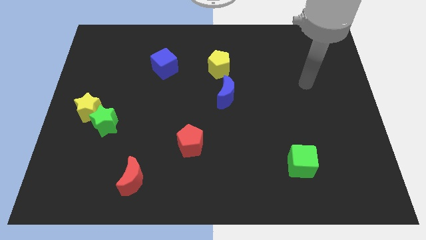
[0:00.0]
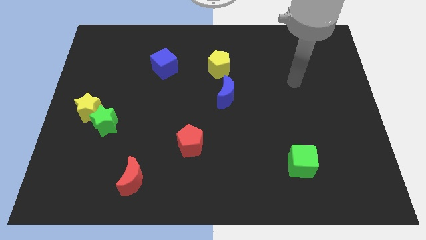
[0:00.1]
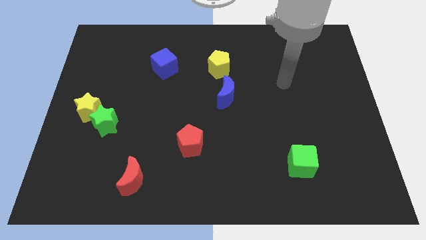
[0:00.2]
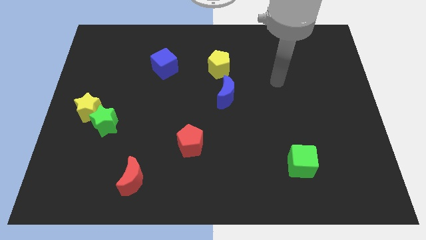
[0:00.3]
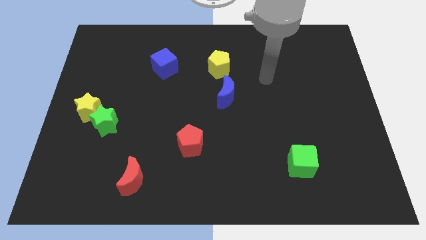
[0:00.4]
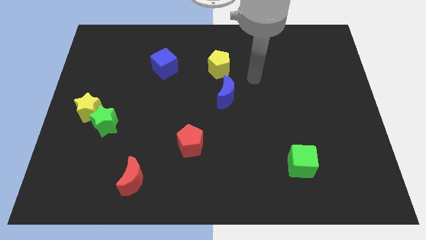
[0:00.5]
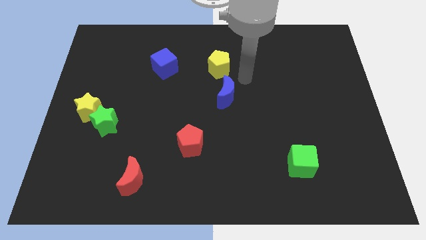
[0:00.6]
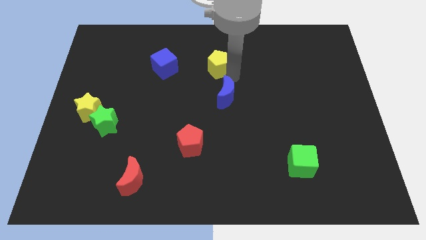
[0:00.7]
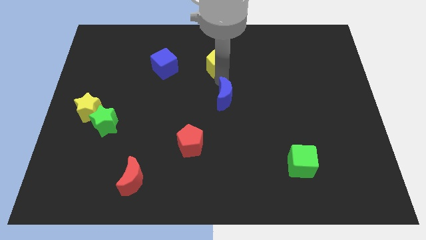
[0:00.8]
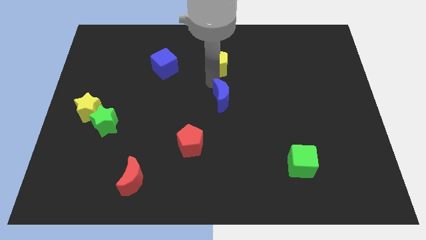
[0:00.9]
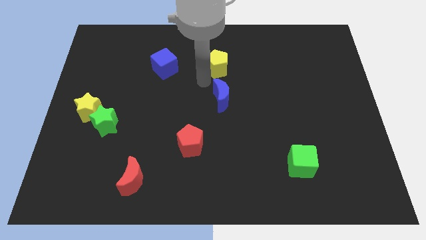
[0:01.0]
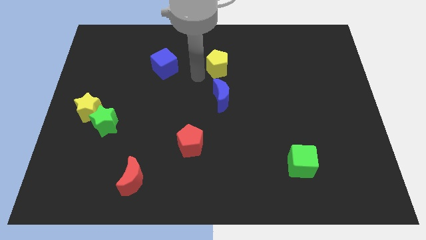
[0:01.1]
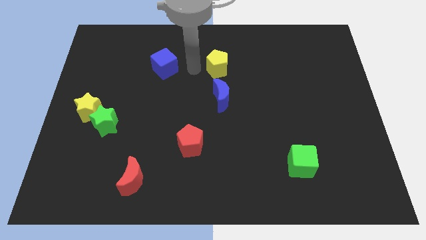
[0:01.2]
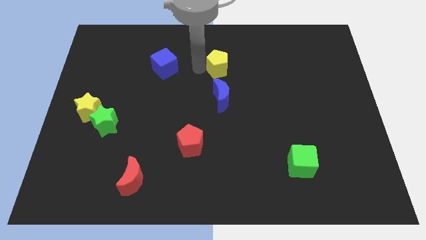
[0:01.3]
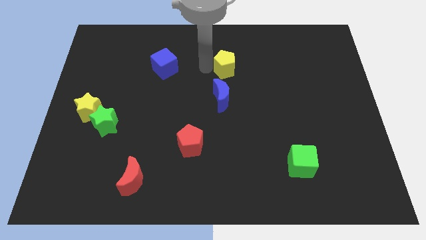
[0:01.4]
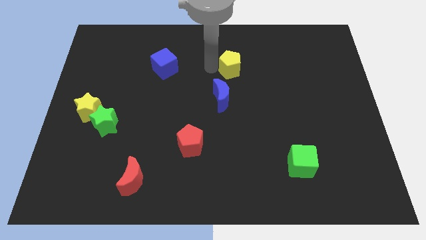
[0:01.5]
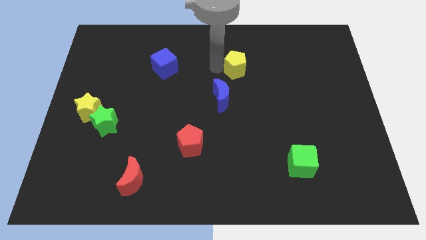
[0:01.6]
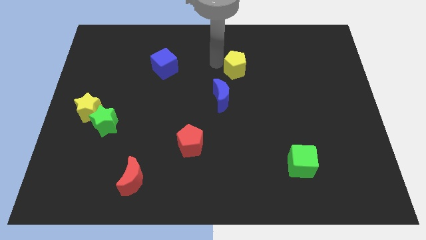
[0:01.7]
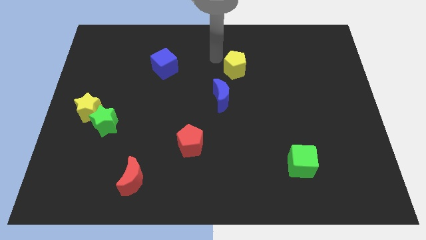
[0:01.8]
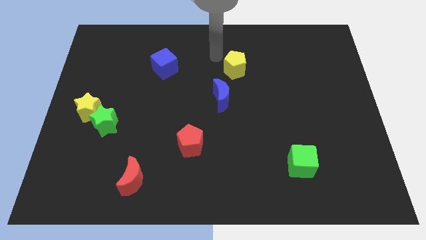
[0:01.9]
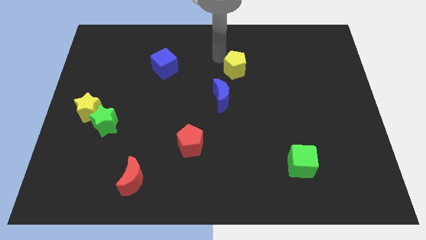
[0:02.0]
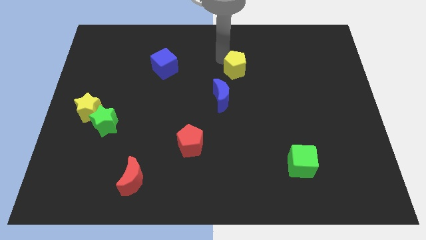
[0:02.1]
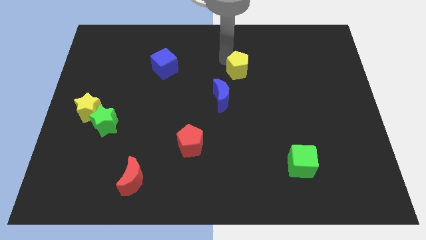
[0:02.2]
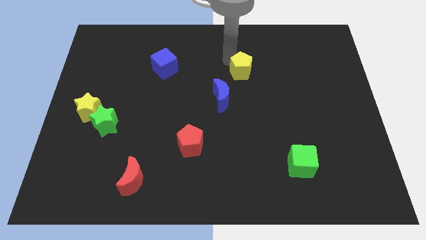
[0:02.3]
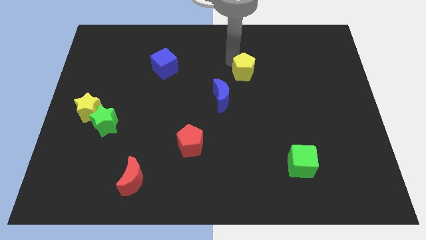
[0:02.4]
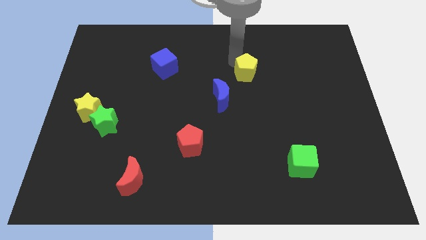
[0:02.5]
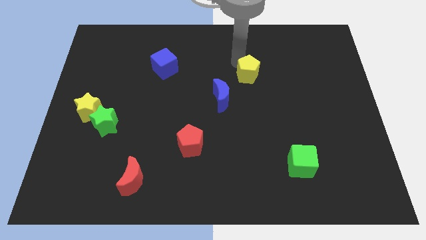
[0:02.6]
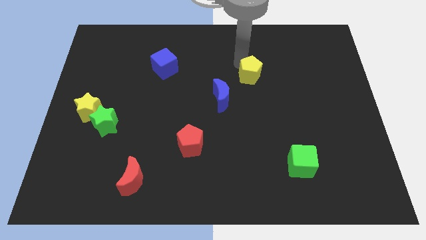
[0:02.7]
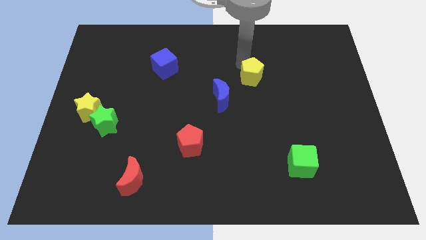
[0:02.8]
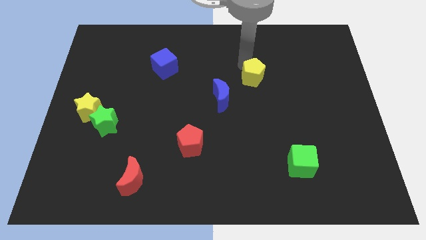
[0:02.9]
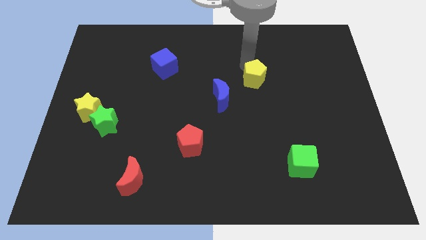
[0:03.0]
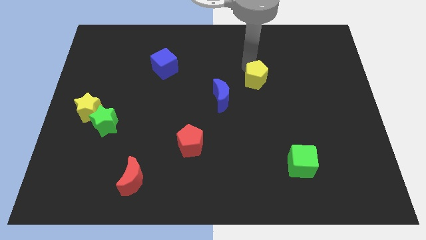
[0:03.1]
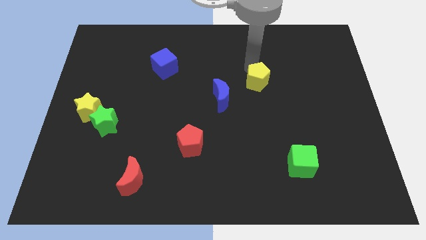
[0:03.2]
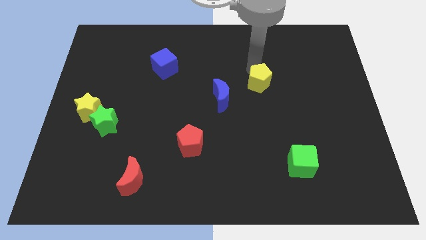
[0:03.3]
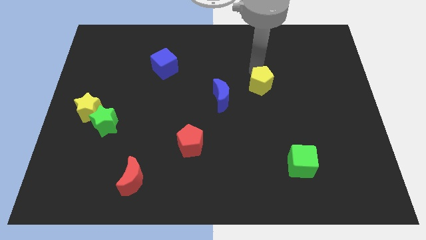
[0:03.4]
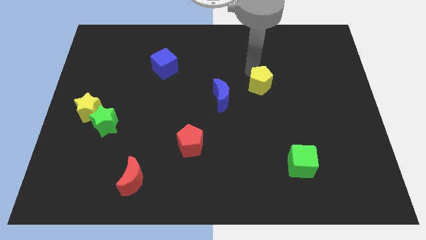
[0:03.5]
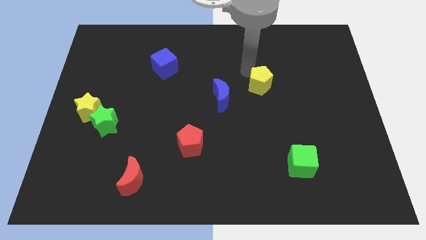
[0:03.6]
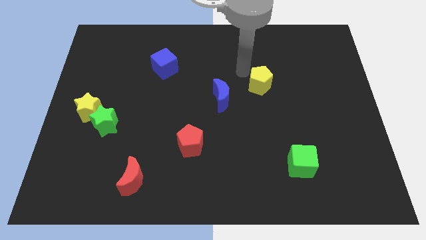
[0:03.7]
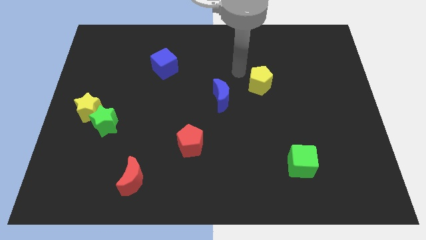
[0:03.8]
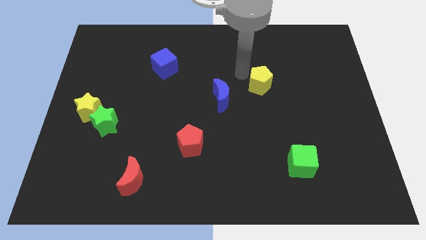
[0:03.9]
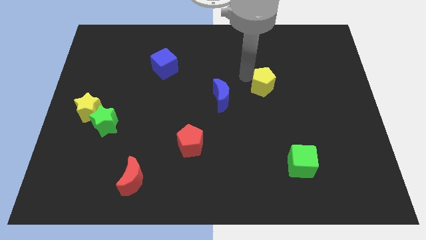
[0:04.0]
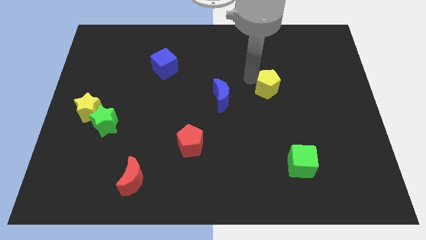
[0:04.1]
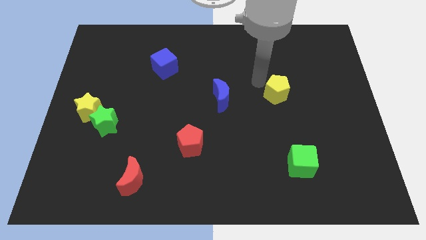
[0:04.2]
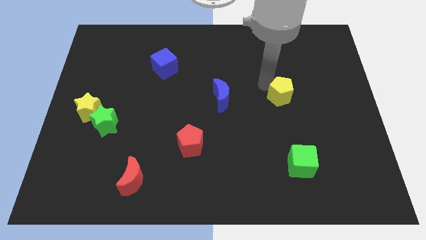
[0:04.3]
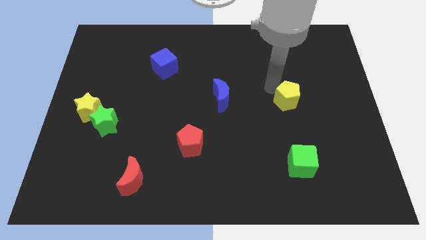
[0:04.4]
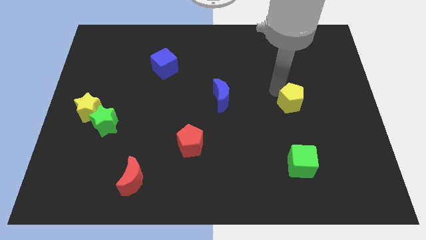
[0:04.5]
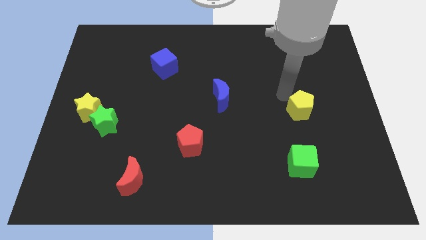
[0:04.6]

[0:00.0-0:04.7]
slide the yellow pentagon diagonally down and to the right

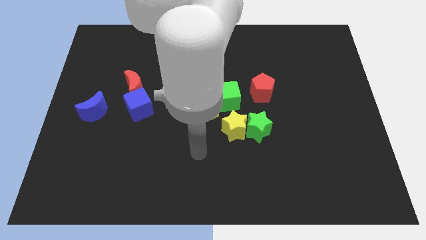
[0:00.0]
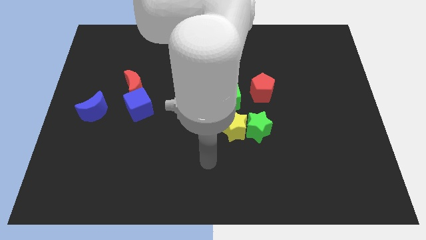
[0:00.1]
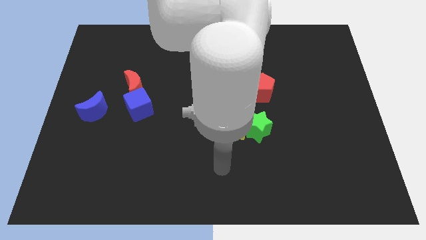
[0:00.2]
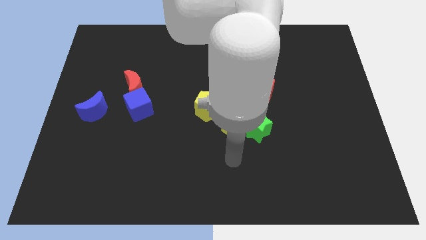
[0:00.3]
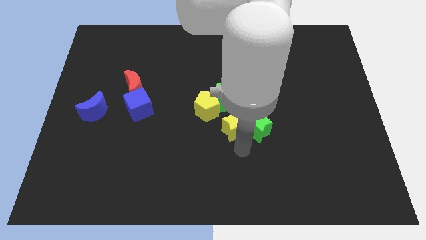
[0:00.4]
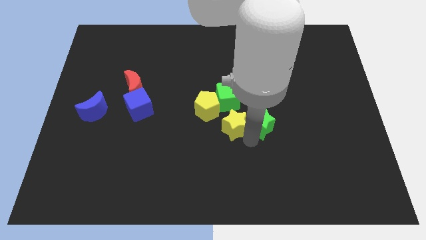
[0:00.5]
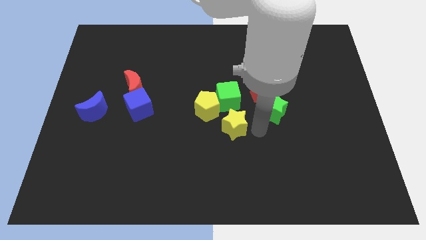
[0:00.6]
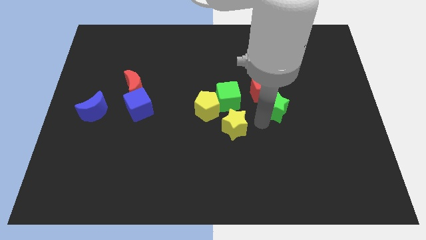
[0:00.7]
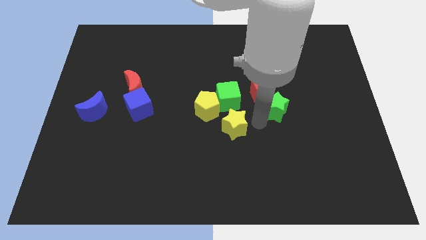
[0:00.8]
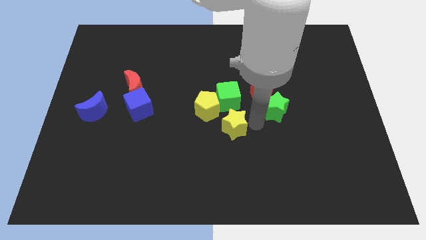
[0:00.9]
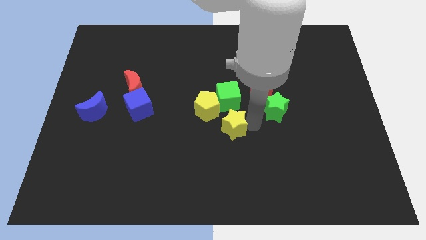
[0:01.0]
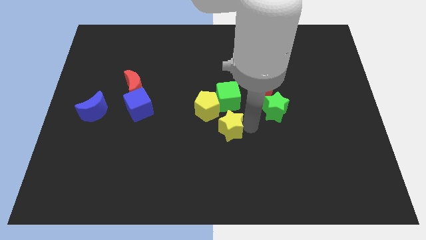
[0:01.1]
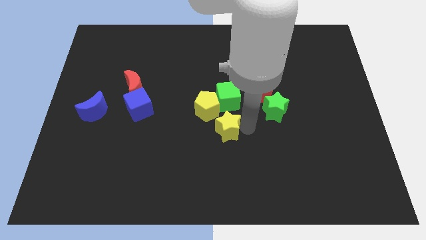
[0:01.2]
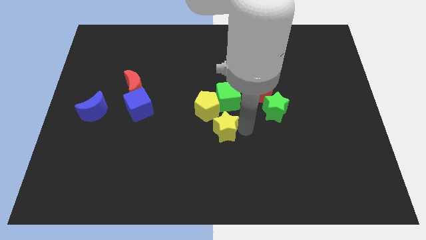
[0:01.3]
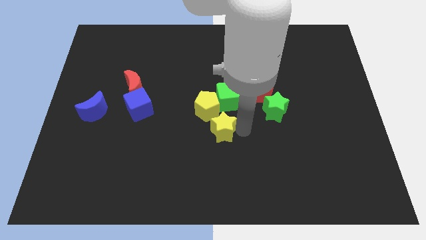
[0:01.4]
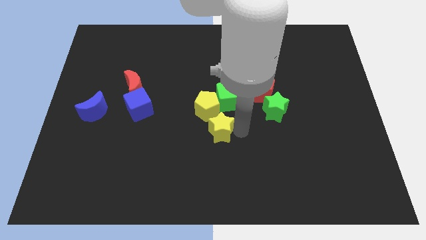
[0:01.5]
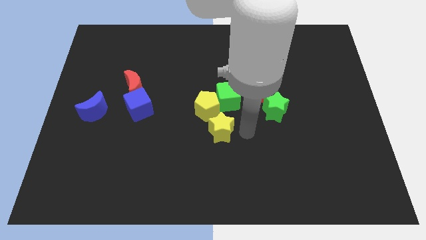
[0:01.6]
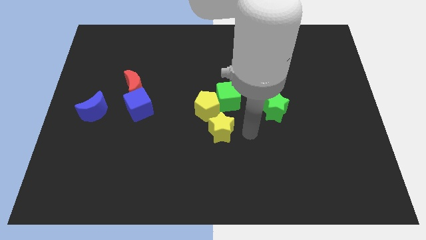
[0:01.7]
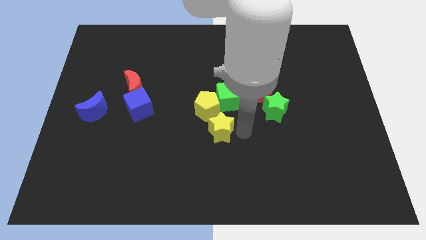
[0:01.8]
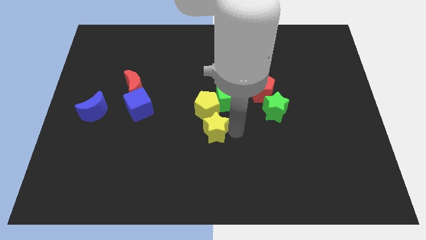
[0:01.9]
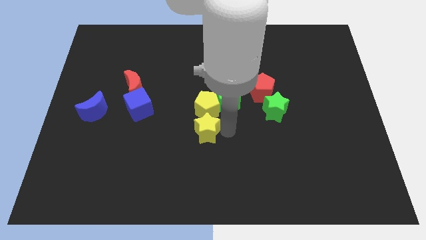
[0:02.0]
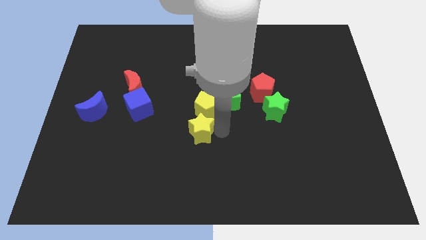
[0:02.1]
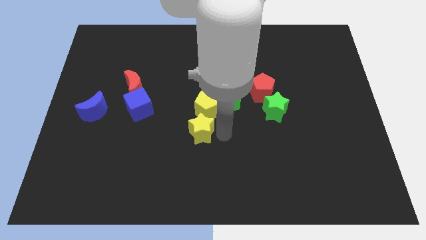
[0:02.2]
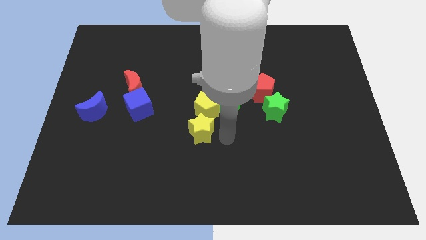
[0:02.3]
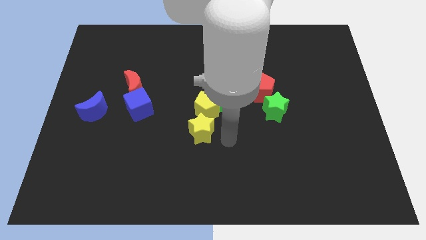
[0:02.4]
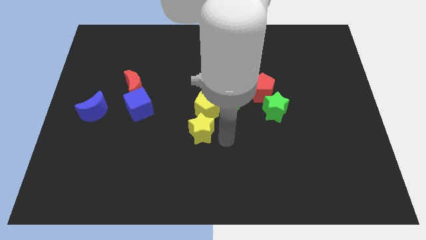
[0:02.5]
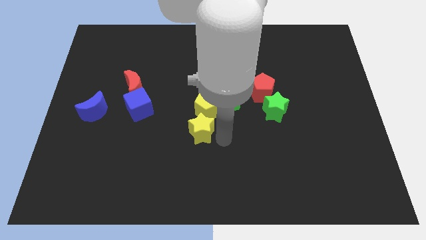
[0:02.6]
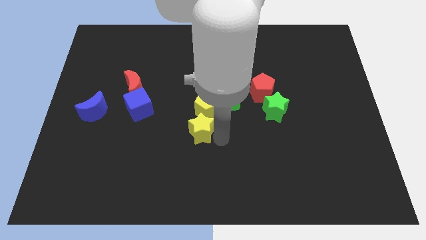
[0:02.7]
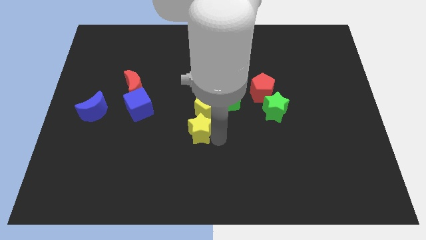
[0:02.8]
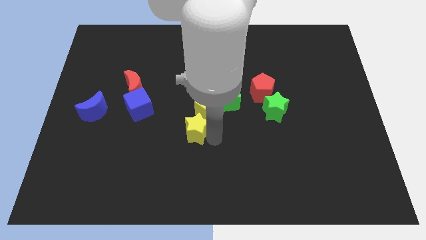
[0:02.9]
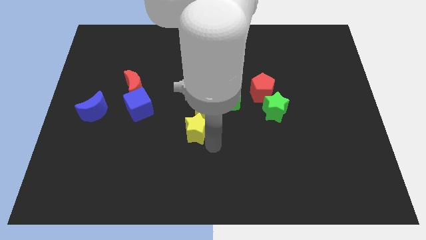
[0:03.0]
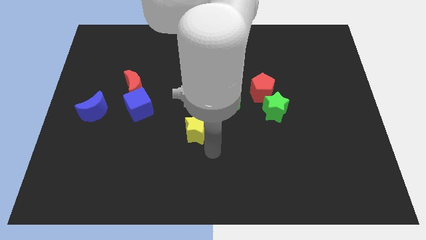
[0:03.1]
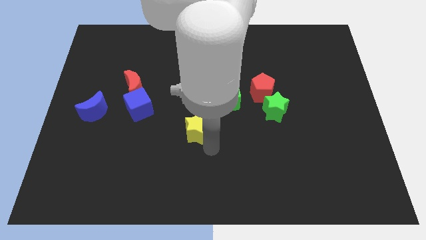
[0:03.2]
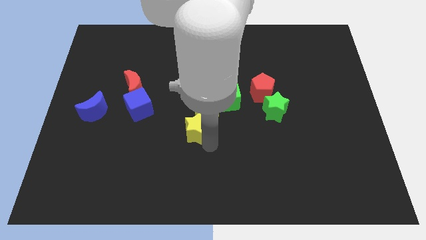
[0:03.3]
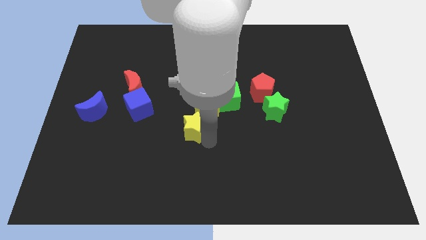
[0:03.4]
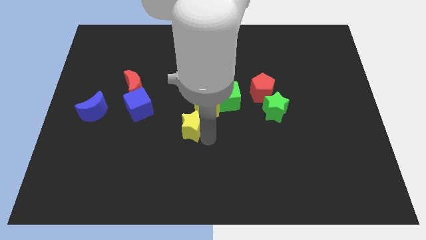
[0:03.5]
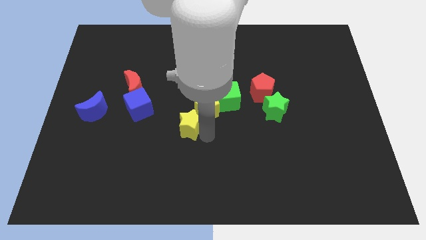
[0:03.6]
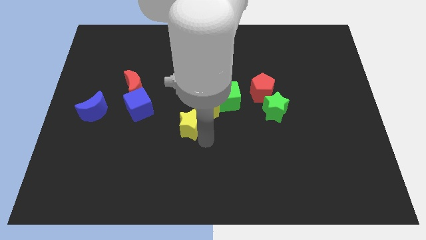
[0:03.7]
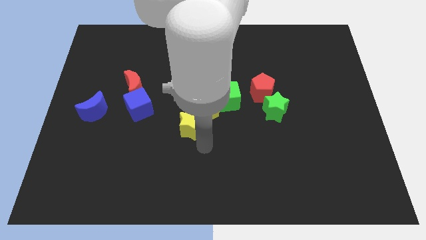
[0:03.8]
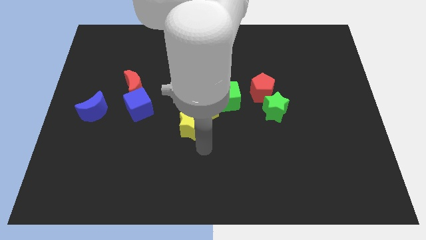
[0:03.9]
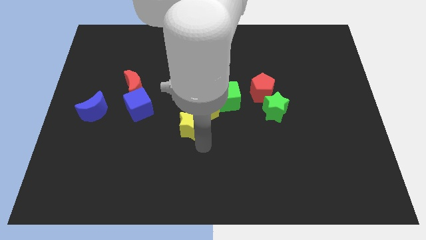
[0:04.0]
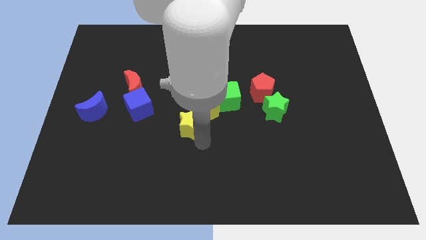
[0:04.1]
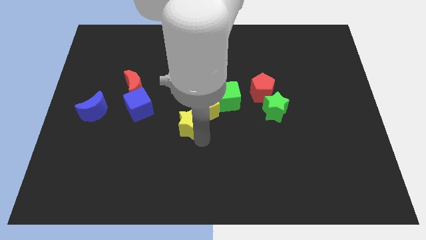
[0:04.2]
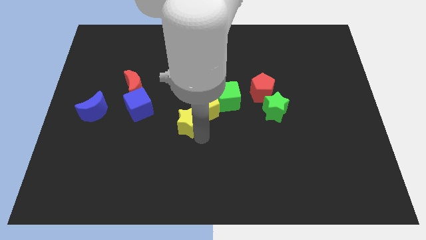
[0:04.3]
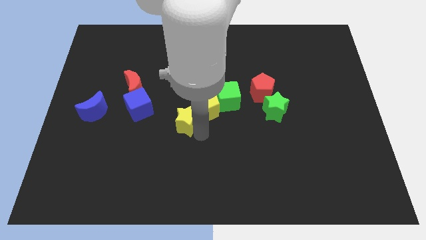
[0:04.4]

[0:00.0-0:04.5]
push the yellow star up and left a little
